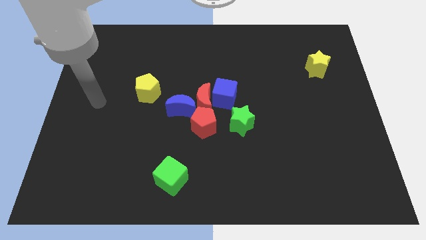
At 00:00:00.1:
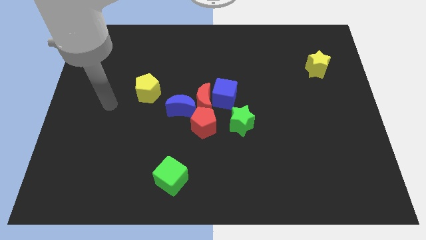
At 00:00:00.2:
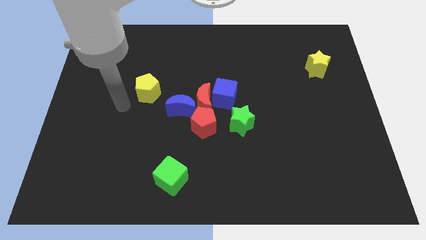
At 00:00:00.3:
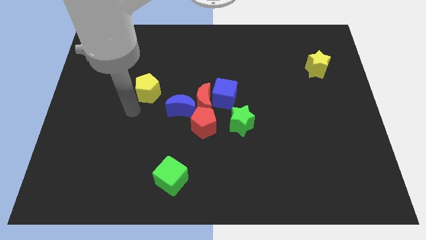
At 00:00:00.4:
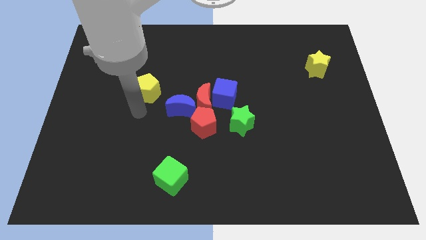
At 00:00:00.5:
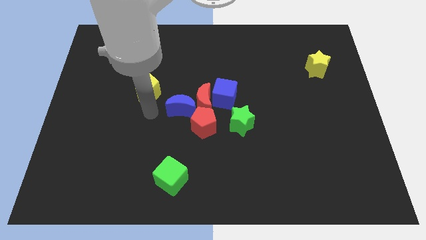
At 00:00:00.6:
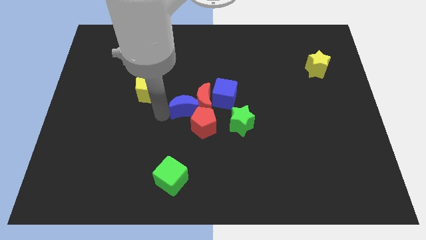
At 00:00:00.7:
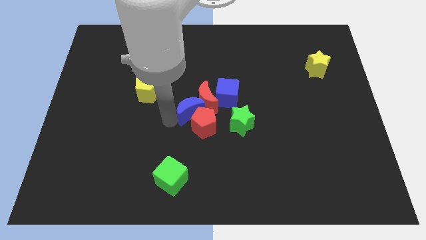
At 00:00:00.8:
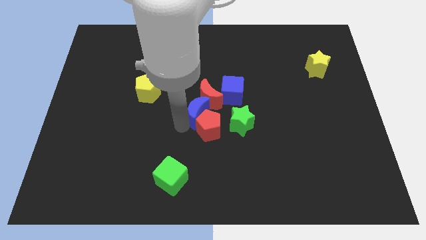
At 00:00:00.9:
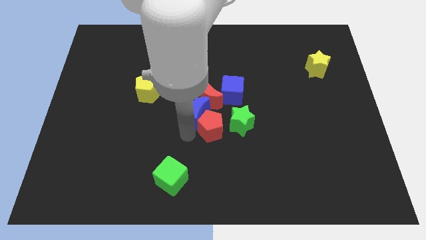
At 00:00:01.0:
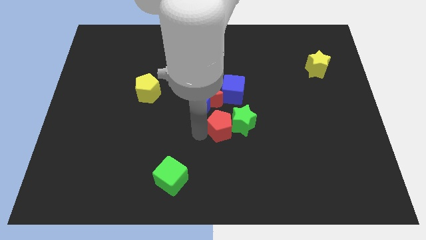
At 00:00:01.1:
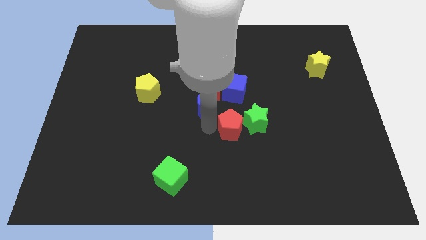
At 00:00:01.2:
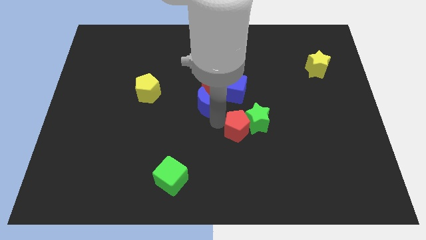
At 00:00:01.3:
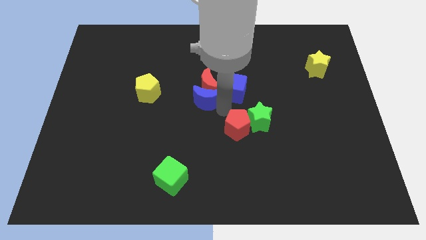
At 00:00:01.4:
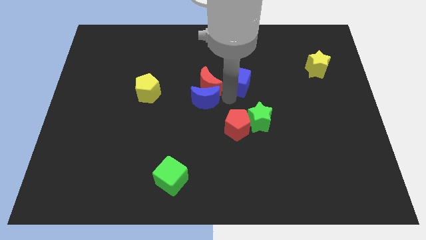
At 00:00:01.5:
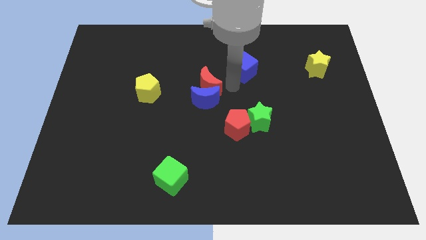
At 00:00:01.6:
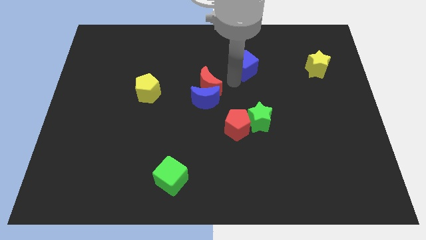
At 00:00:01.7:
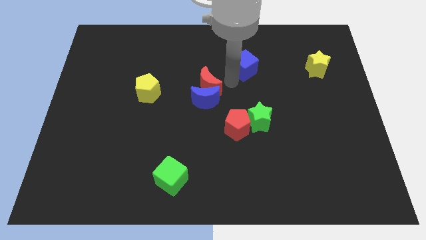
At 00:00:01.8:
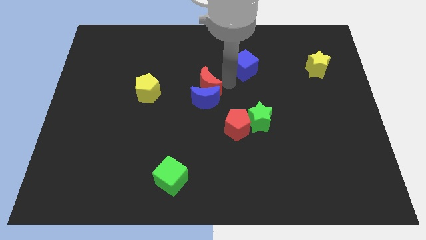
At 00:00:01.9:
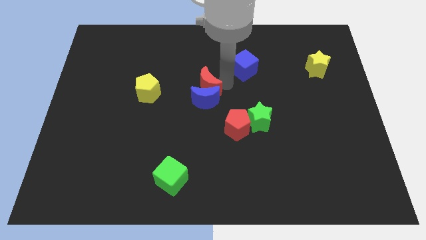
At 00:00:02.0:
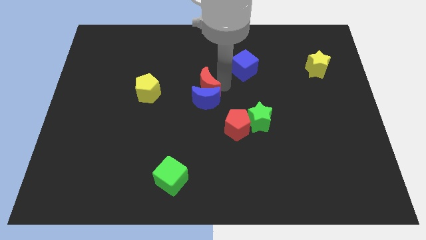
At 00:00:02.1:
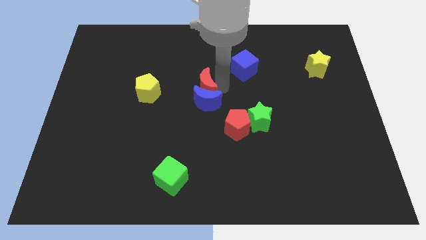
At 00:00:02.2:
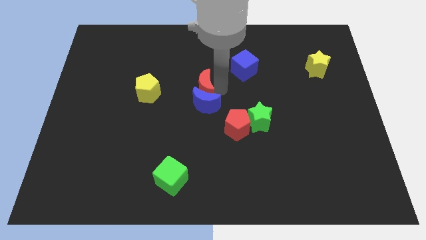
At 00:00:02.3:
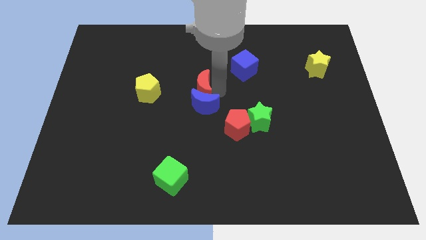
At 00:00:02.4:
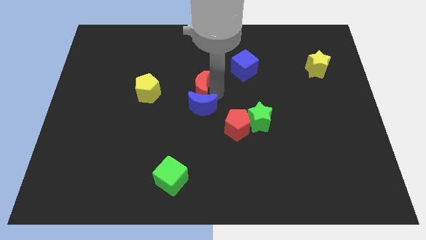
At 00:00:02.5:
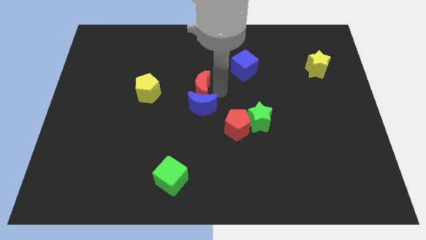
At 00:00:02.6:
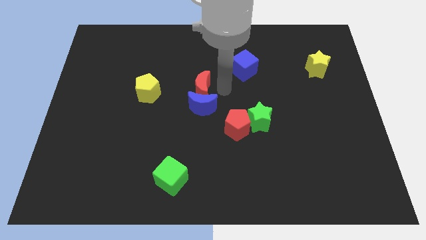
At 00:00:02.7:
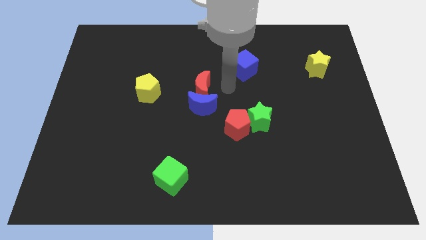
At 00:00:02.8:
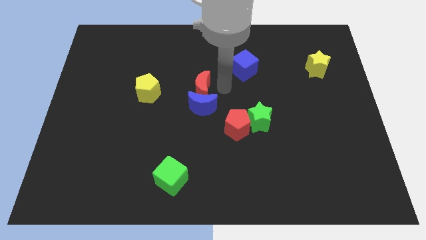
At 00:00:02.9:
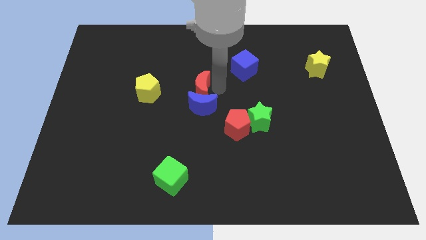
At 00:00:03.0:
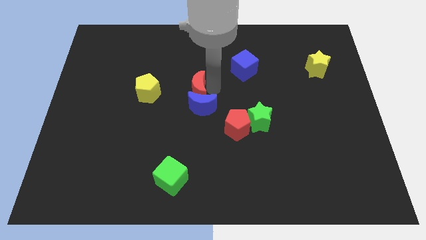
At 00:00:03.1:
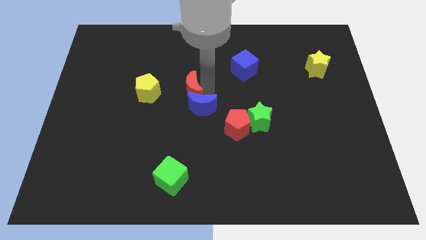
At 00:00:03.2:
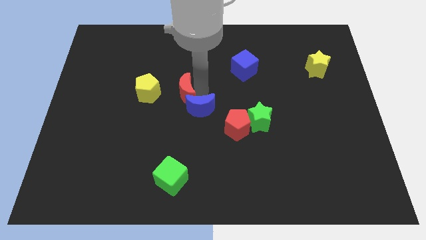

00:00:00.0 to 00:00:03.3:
pull the red moon apart from the group

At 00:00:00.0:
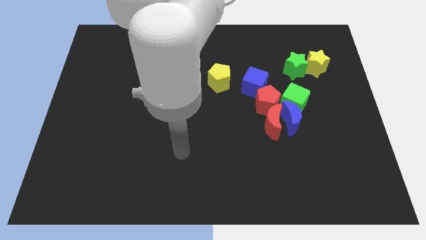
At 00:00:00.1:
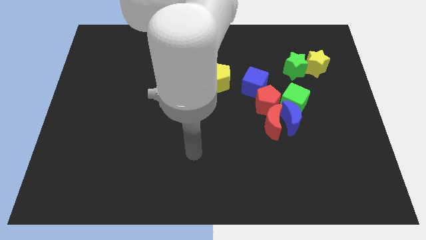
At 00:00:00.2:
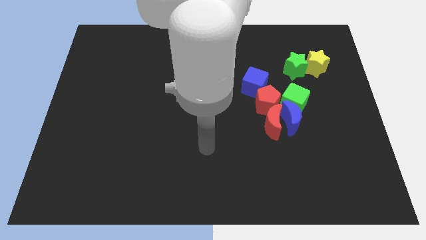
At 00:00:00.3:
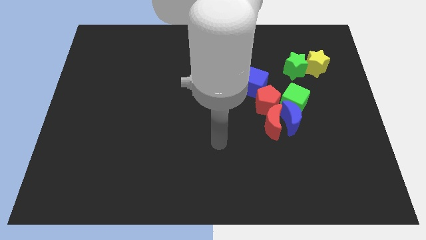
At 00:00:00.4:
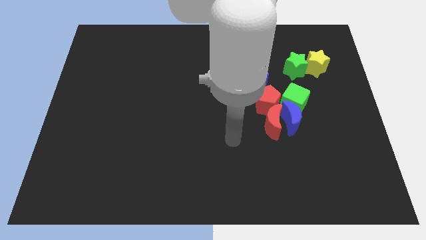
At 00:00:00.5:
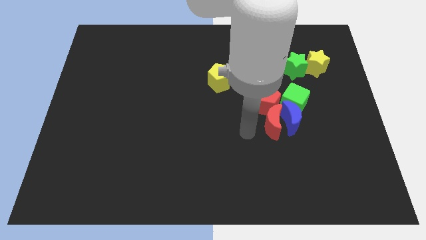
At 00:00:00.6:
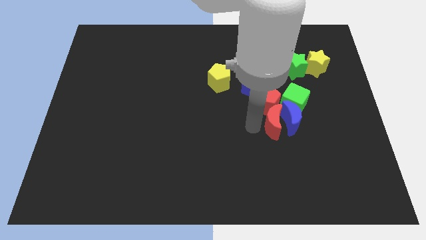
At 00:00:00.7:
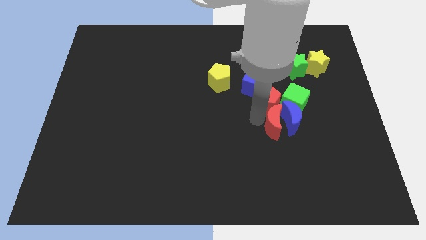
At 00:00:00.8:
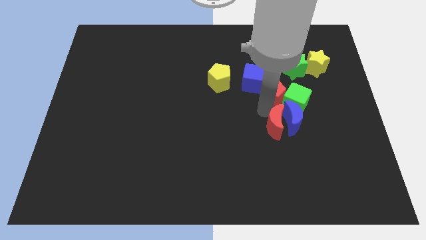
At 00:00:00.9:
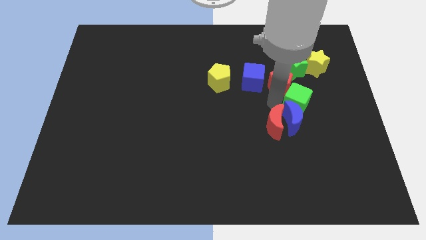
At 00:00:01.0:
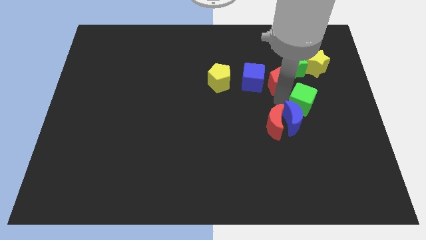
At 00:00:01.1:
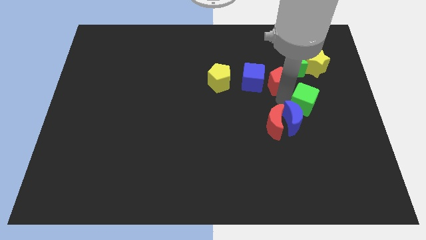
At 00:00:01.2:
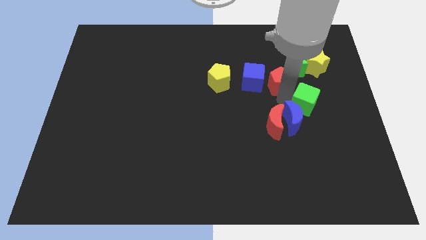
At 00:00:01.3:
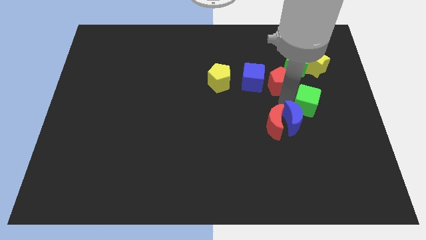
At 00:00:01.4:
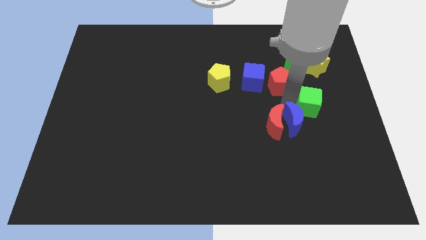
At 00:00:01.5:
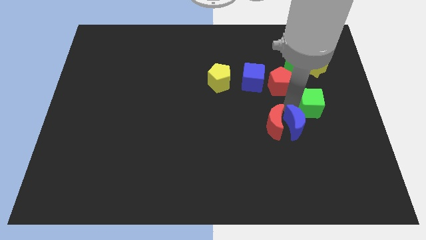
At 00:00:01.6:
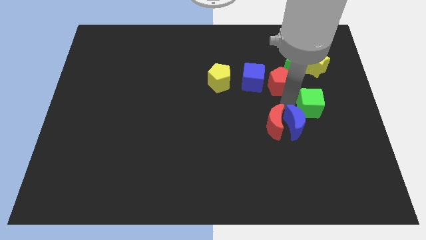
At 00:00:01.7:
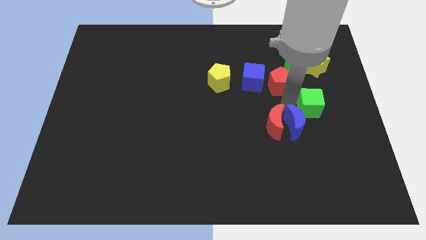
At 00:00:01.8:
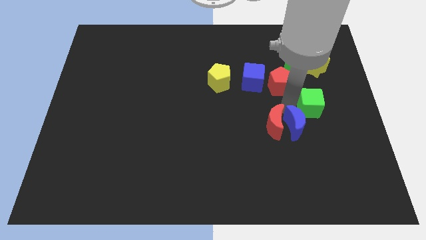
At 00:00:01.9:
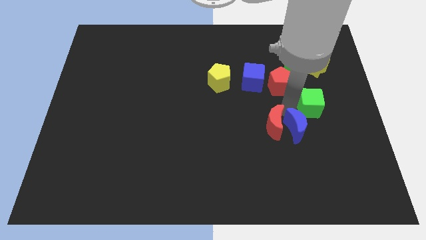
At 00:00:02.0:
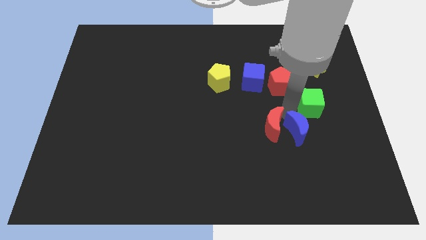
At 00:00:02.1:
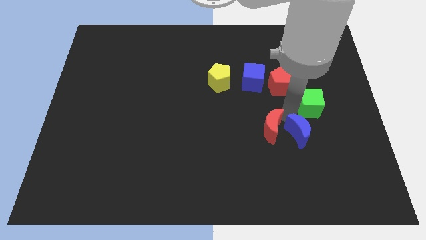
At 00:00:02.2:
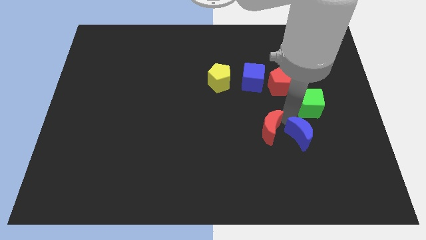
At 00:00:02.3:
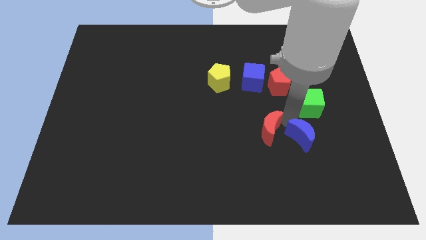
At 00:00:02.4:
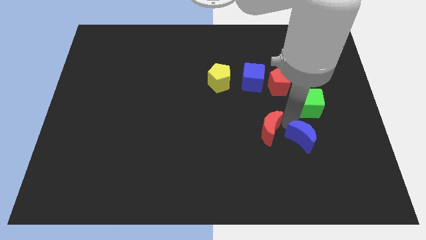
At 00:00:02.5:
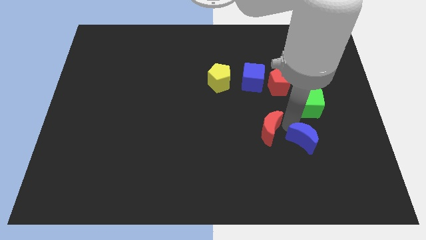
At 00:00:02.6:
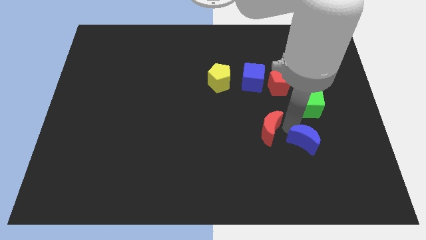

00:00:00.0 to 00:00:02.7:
move the blue moon away from the clump

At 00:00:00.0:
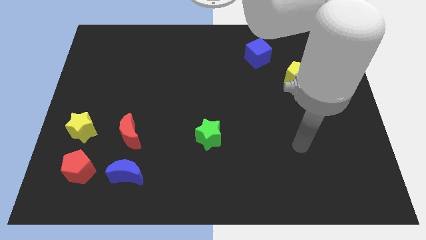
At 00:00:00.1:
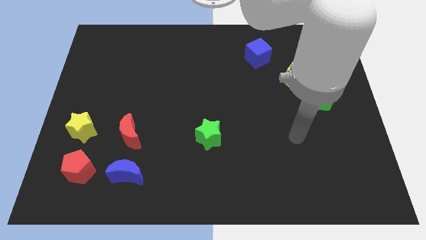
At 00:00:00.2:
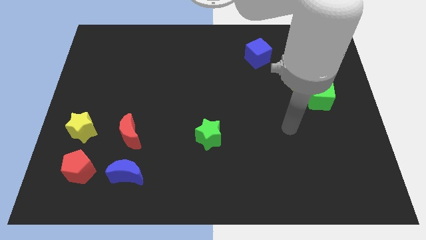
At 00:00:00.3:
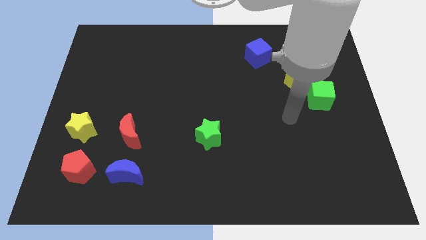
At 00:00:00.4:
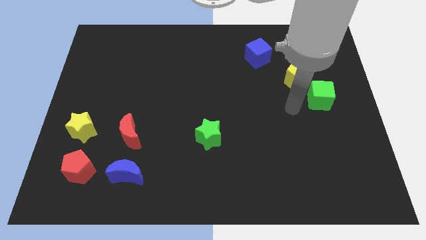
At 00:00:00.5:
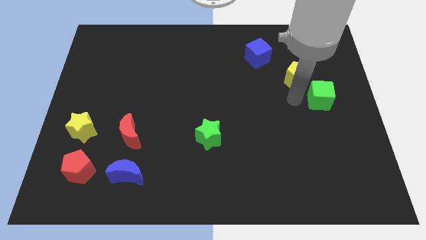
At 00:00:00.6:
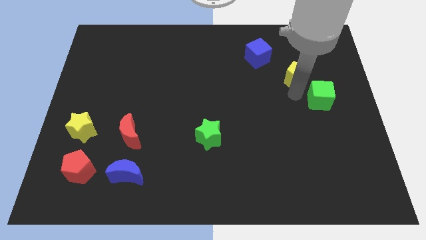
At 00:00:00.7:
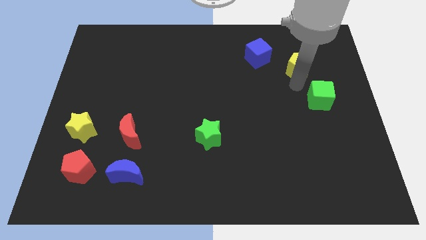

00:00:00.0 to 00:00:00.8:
move the green cube away from the yellow pentagon

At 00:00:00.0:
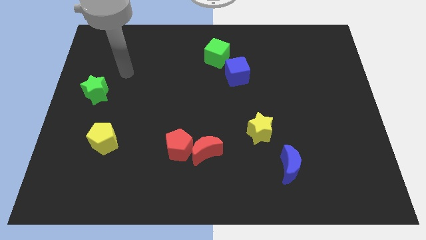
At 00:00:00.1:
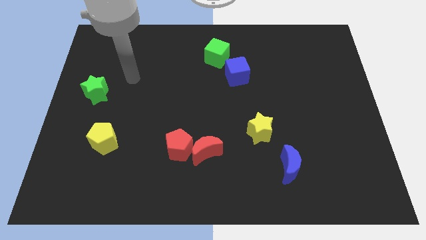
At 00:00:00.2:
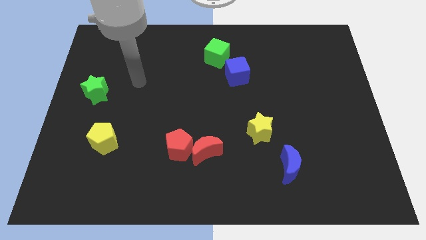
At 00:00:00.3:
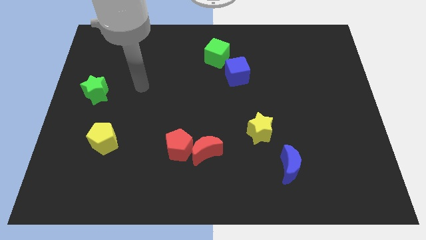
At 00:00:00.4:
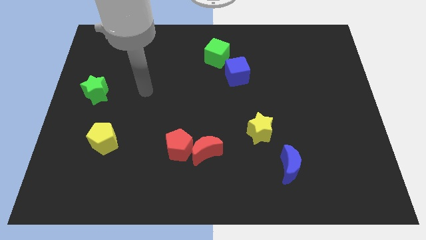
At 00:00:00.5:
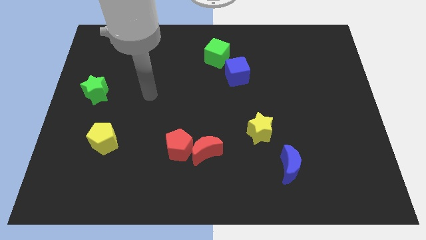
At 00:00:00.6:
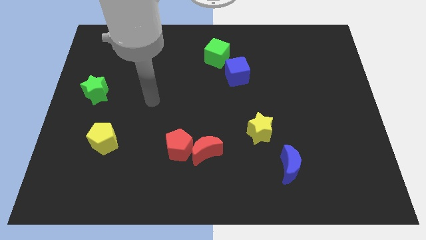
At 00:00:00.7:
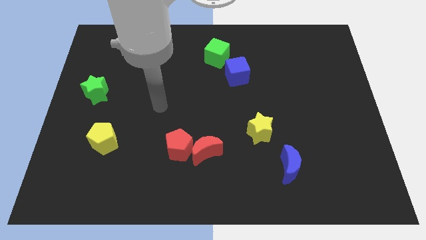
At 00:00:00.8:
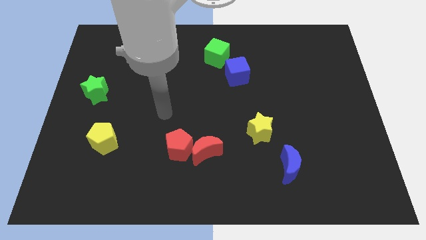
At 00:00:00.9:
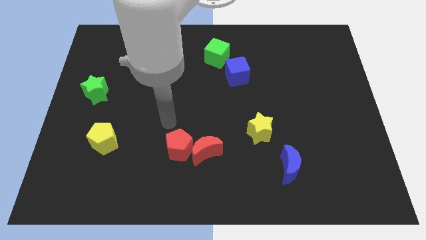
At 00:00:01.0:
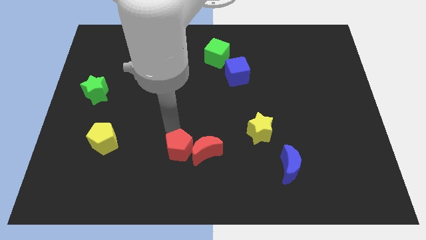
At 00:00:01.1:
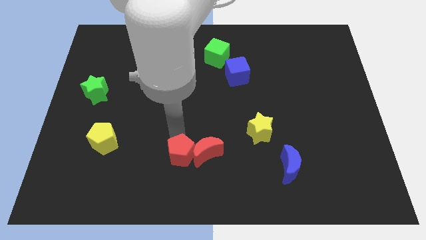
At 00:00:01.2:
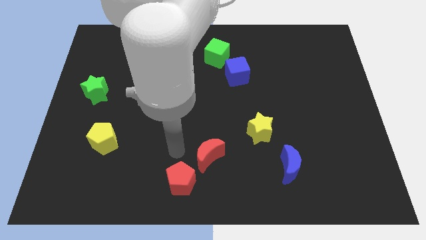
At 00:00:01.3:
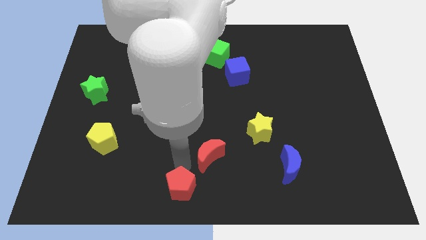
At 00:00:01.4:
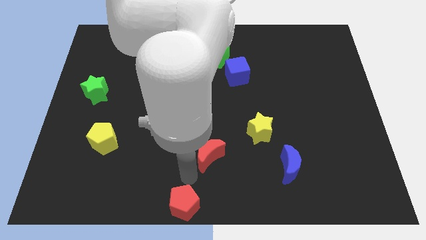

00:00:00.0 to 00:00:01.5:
move the red moon away from the red pentagon

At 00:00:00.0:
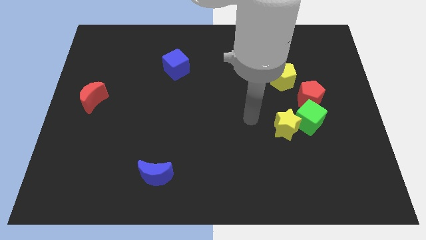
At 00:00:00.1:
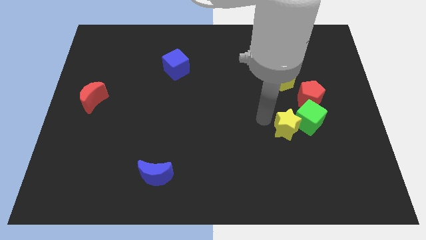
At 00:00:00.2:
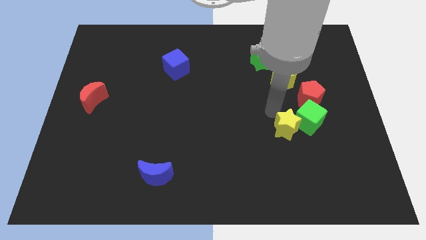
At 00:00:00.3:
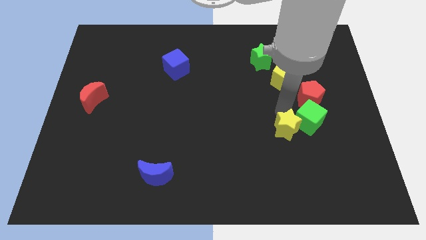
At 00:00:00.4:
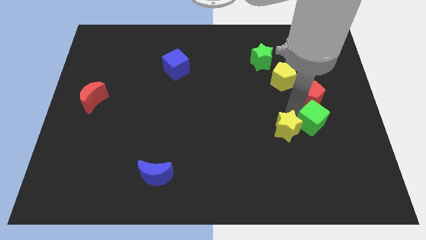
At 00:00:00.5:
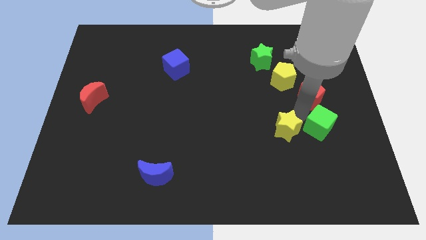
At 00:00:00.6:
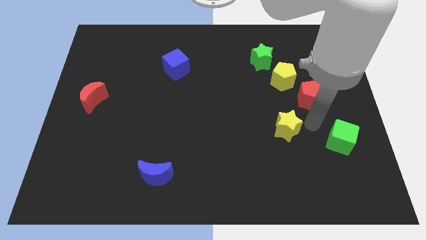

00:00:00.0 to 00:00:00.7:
pull the yellow star apart from the green cube

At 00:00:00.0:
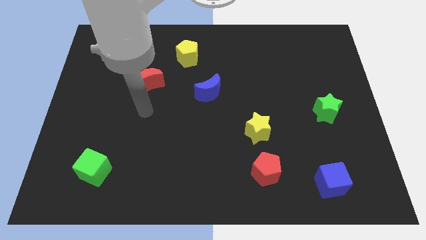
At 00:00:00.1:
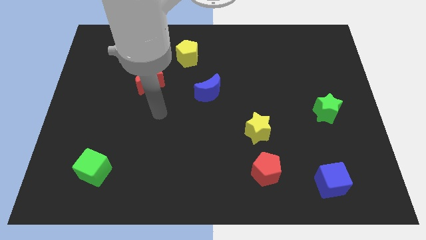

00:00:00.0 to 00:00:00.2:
move the red pentagon away from the yellow star
